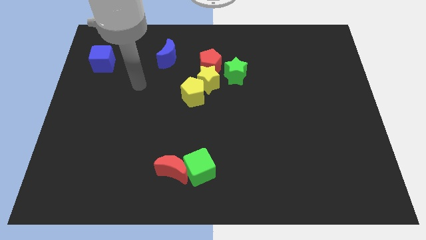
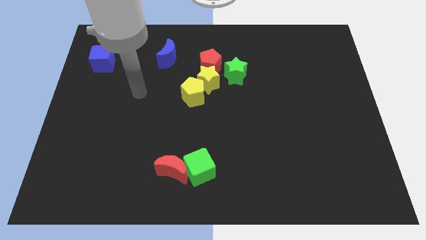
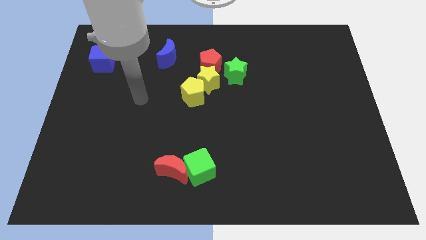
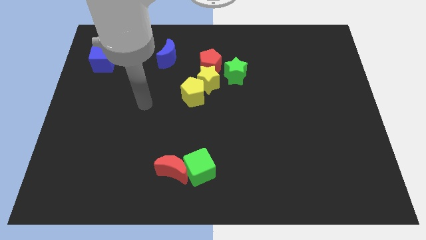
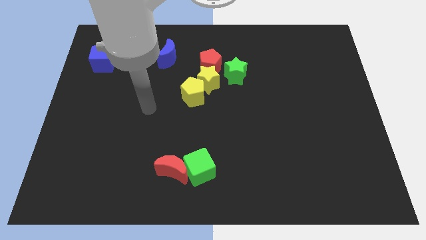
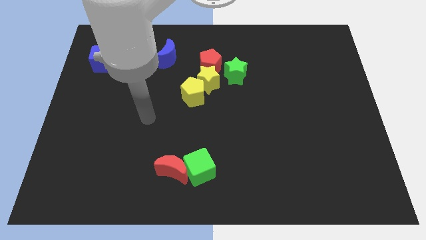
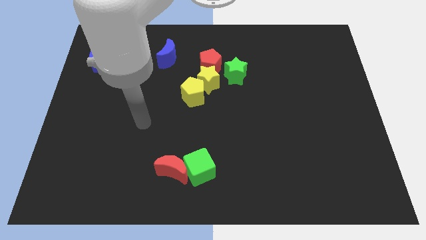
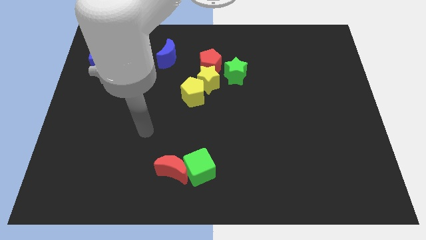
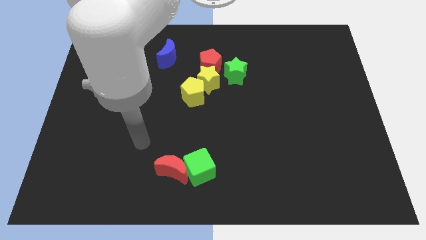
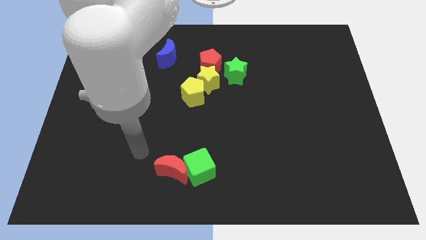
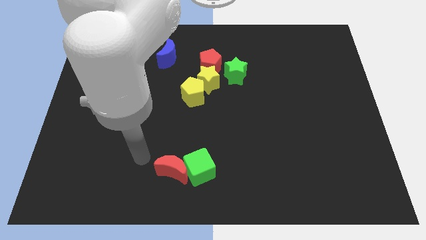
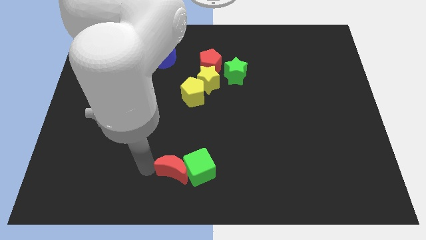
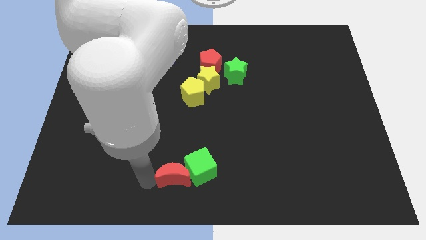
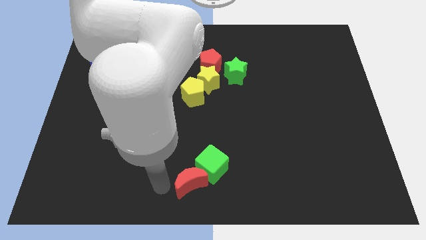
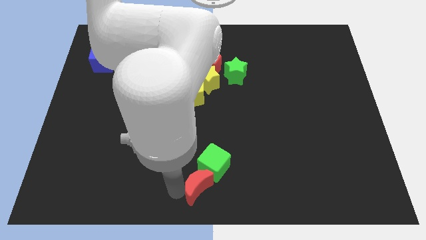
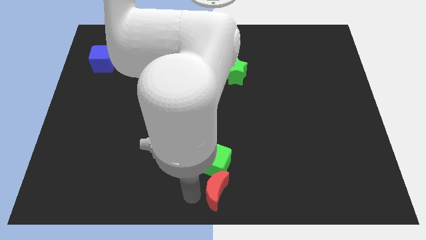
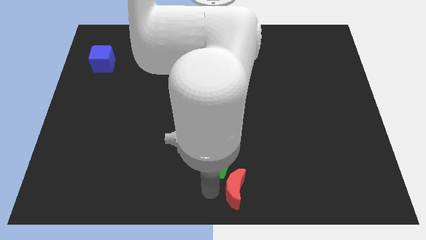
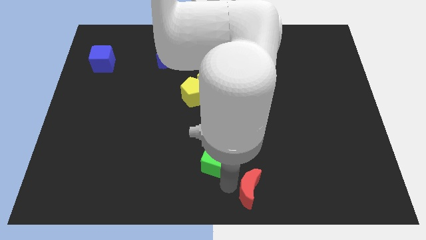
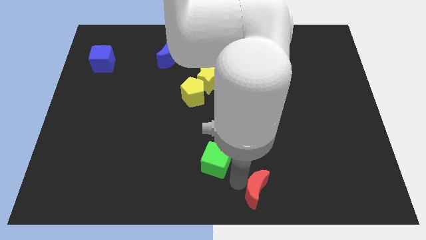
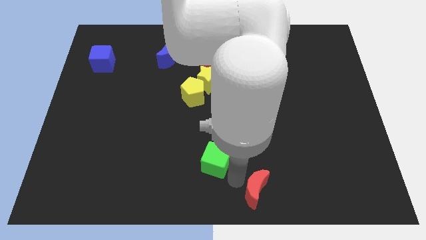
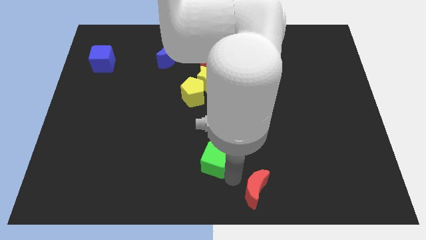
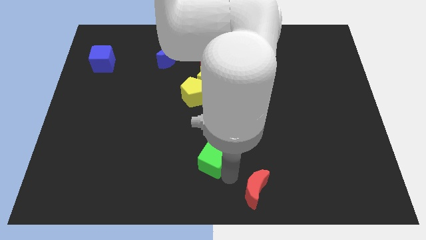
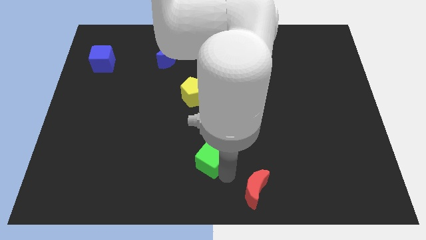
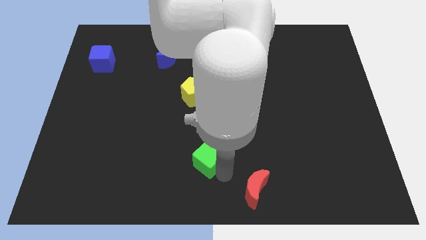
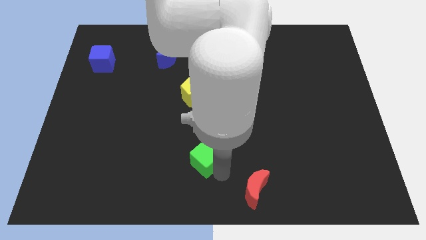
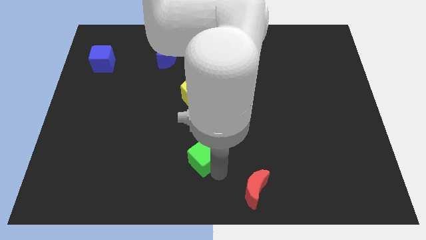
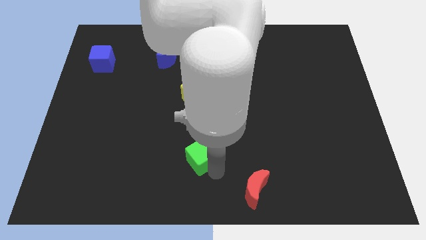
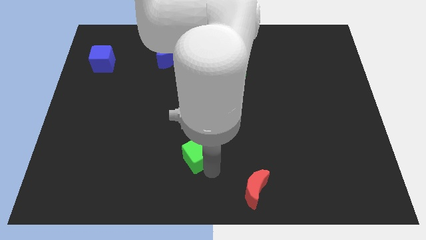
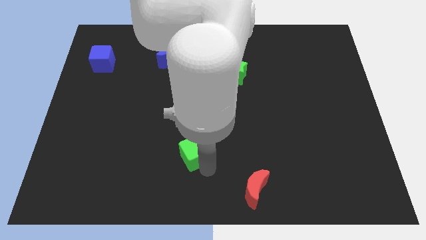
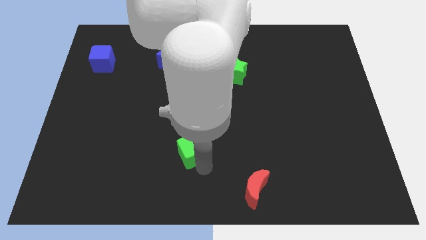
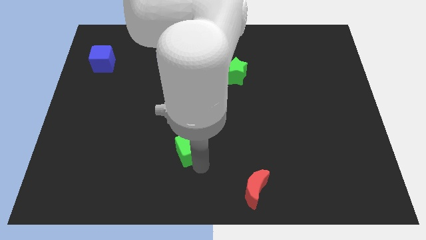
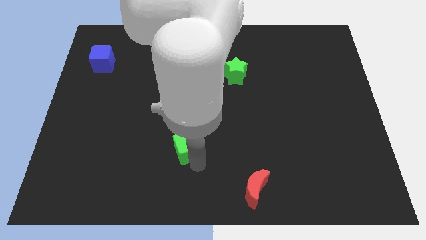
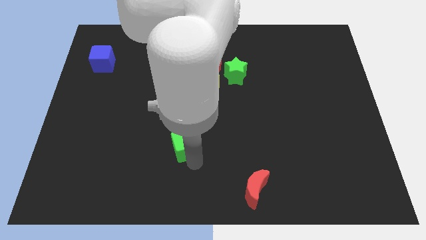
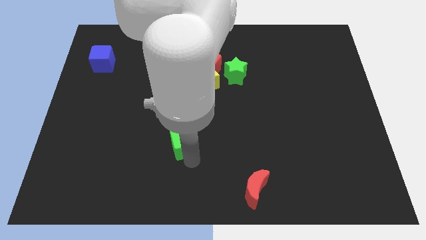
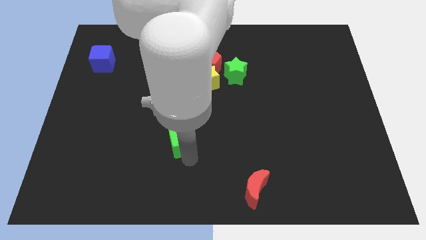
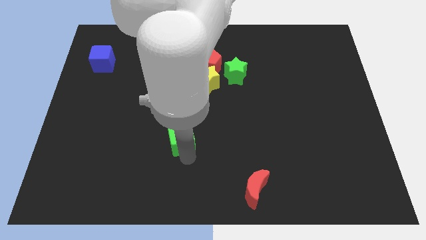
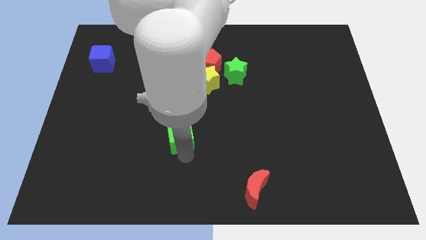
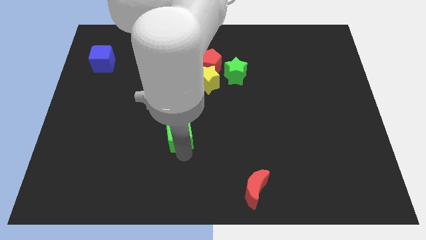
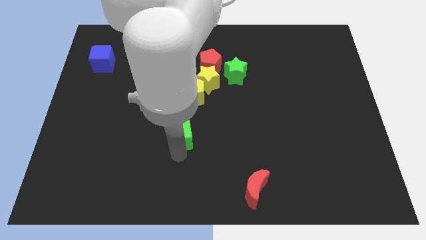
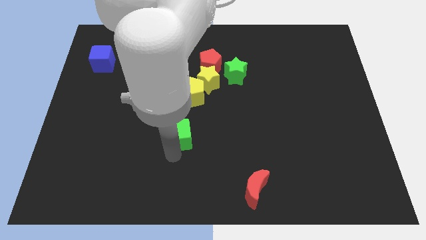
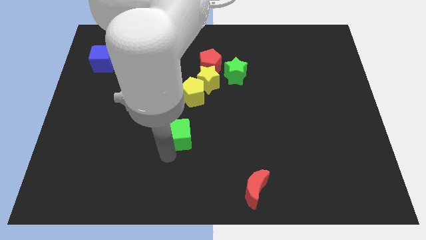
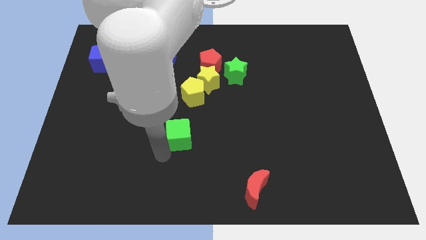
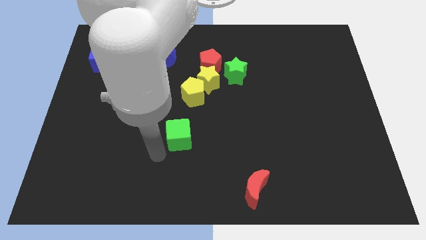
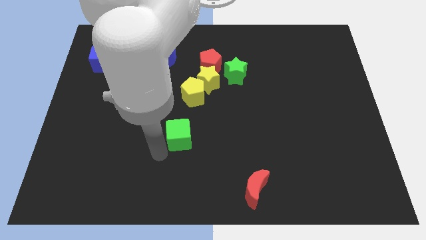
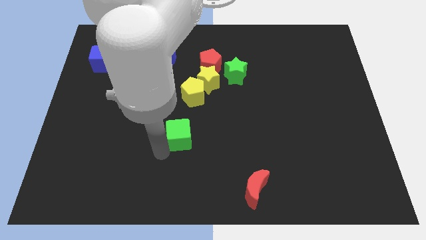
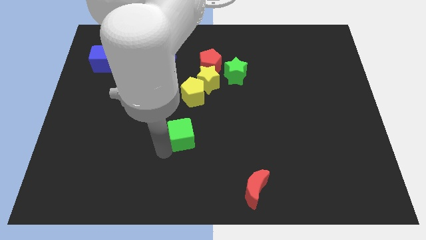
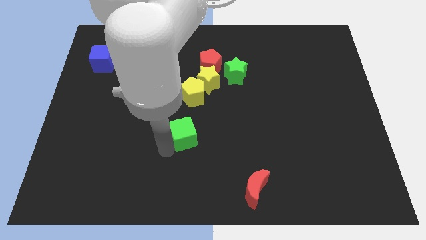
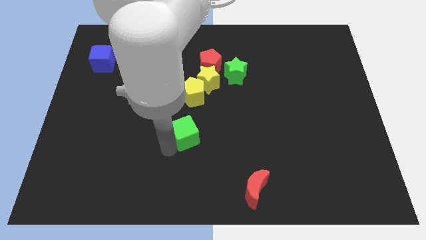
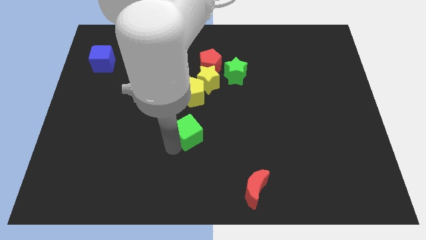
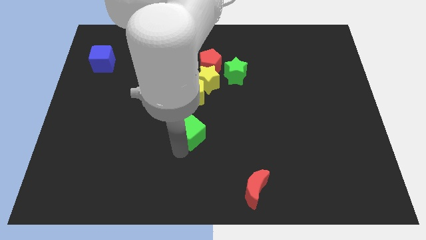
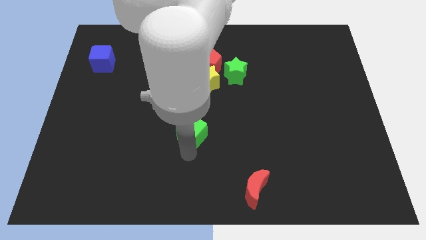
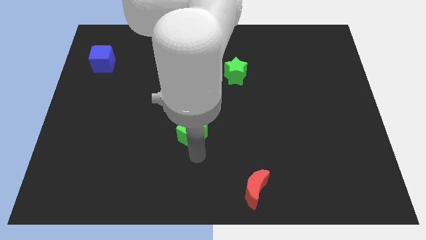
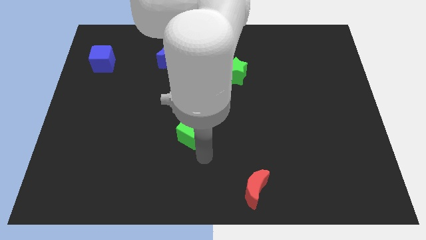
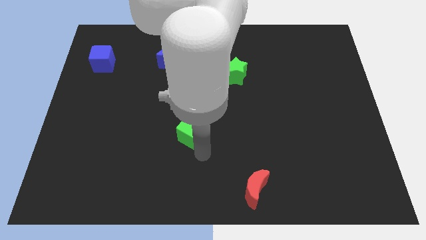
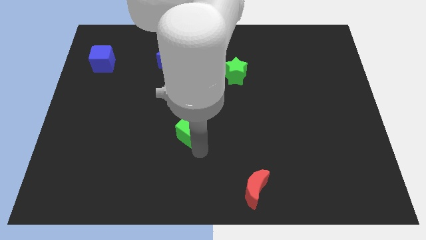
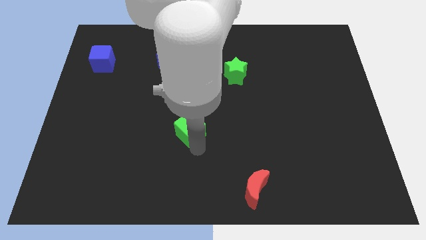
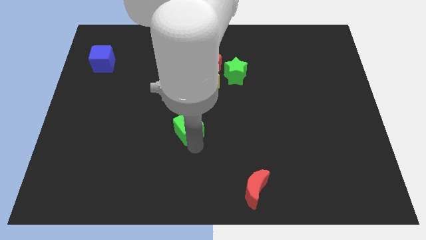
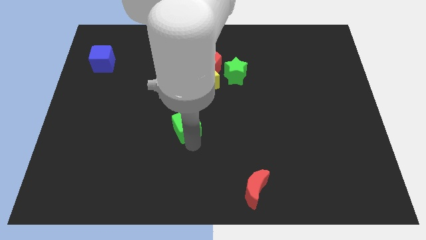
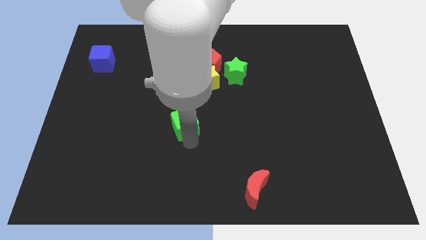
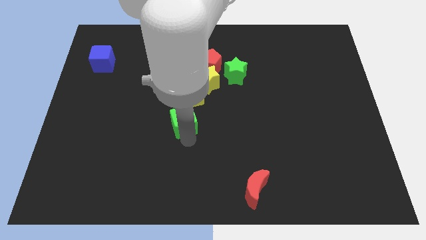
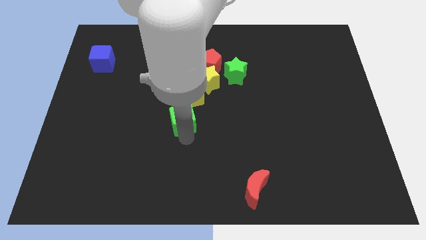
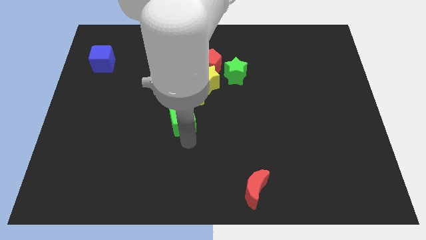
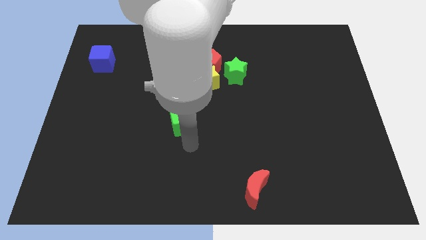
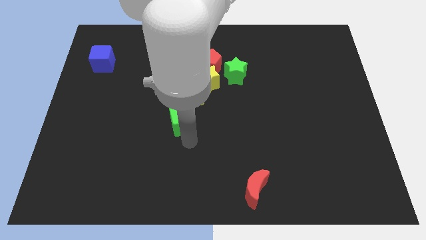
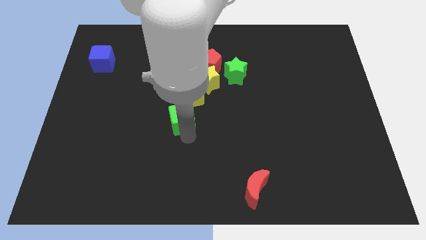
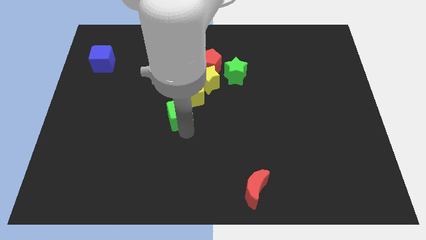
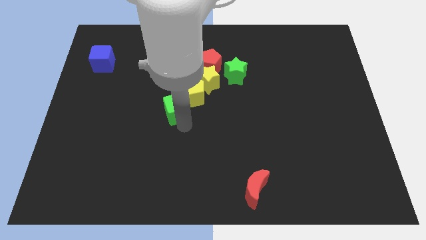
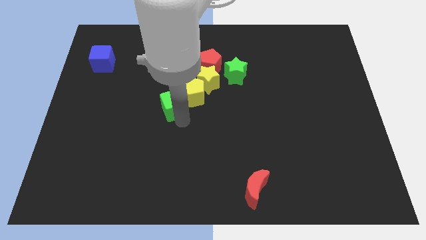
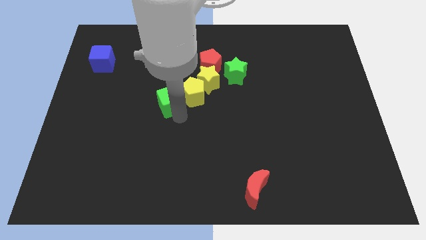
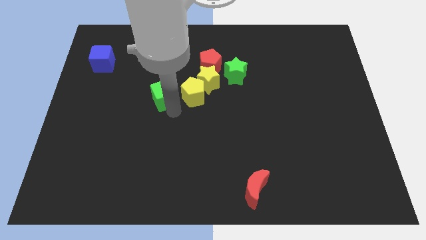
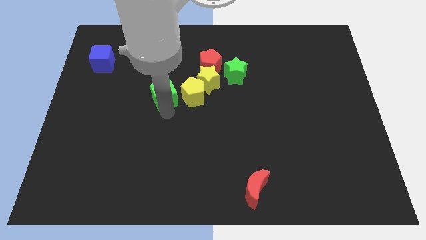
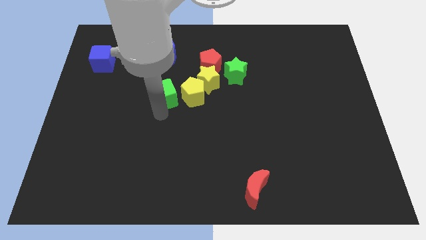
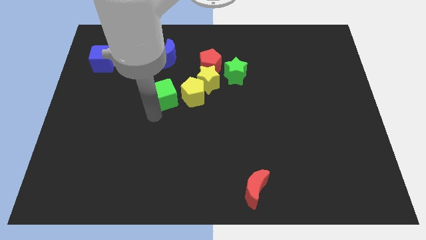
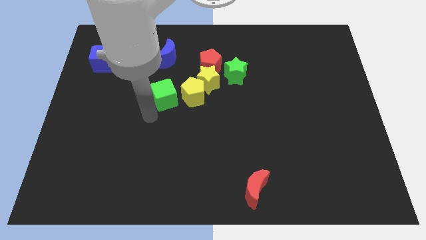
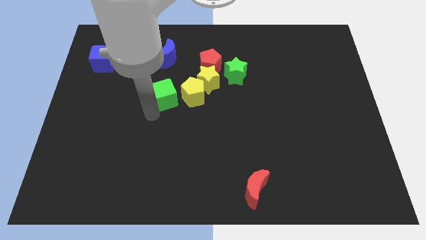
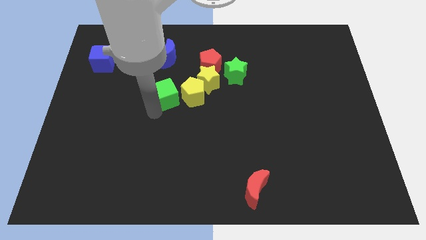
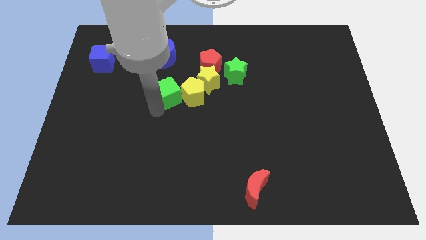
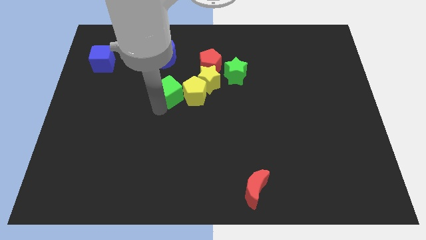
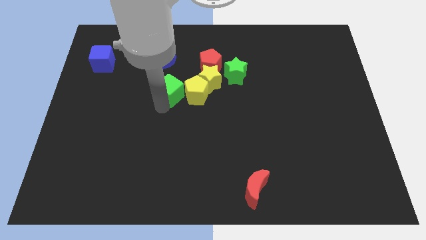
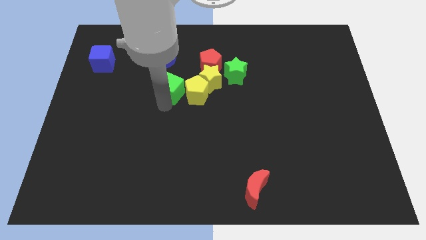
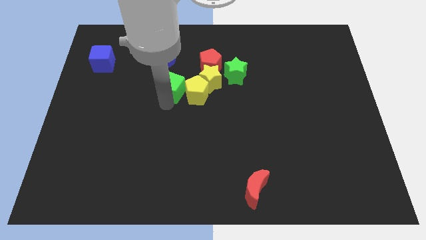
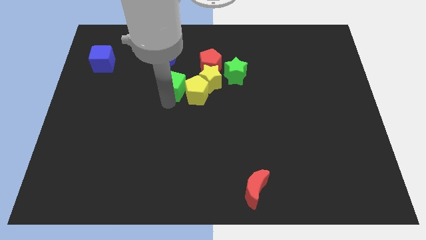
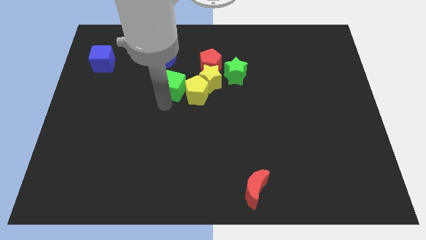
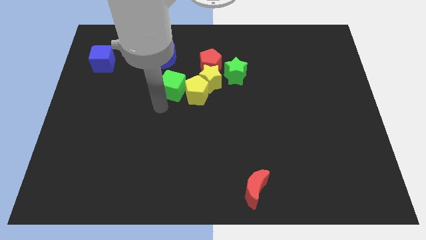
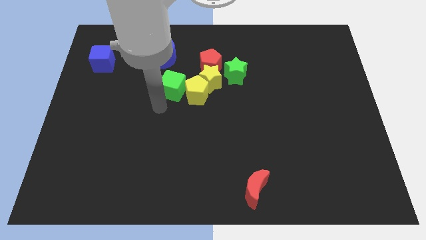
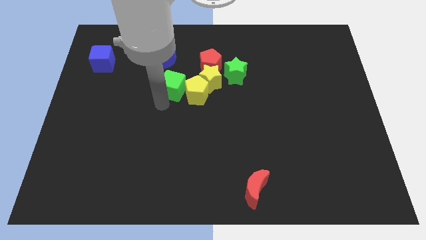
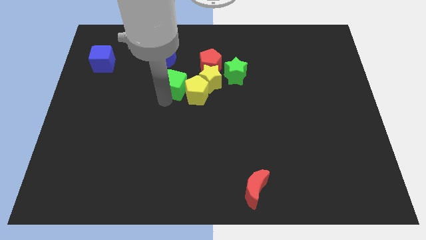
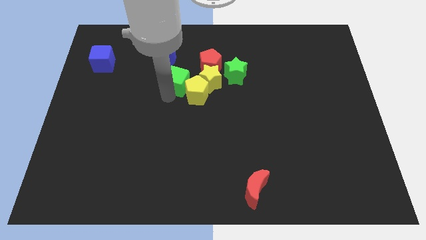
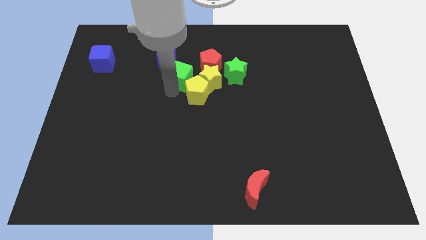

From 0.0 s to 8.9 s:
move the green cube to the top left of the yellow star
